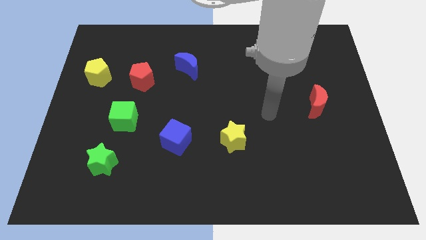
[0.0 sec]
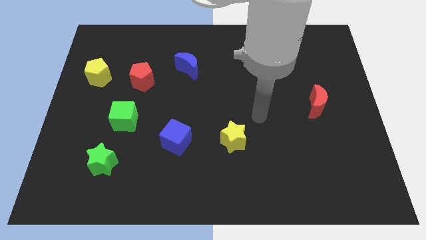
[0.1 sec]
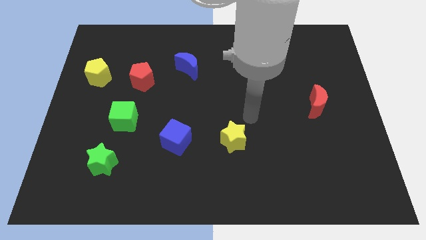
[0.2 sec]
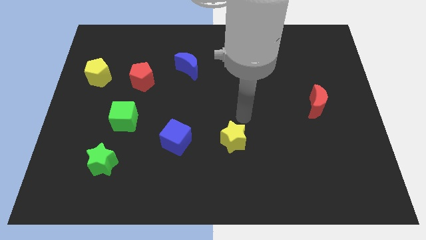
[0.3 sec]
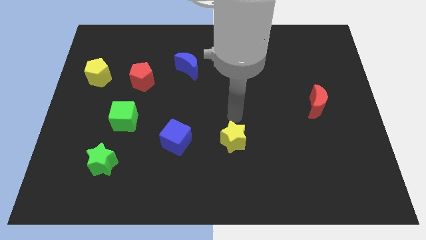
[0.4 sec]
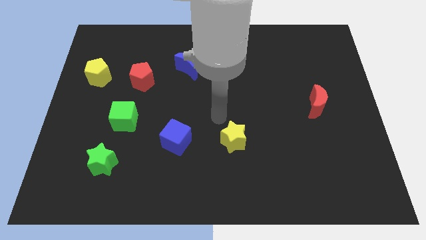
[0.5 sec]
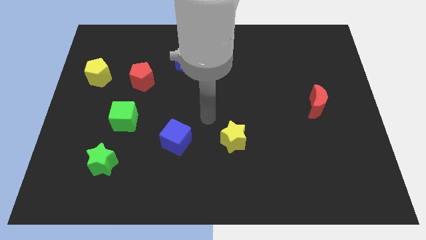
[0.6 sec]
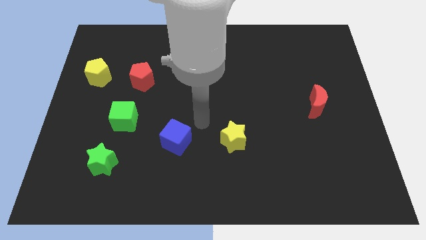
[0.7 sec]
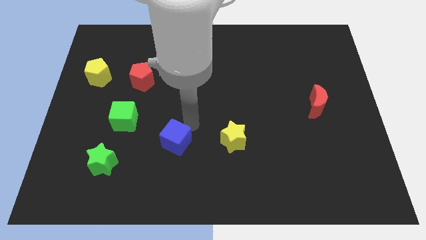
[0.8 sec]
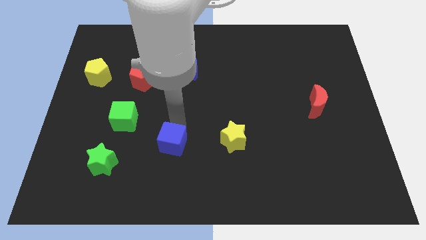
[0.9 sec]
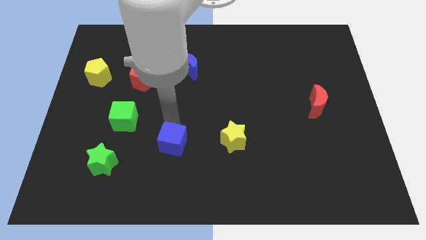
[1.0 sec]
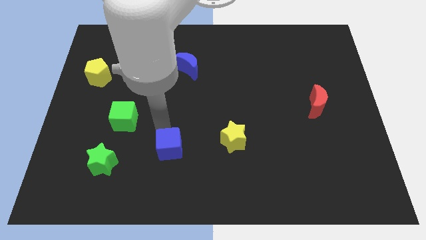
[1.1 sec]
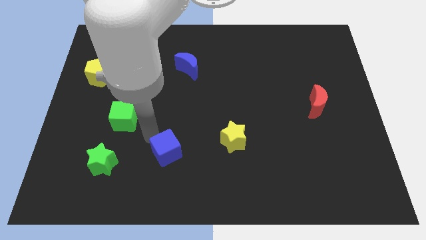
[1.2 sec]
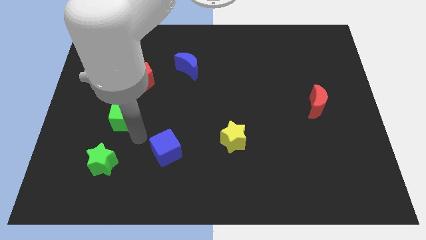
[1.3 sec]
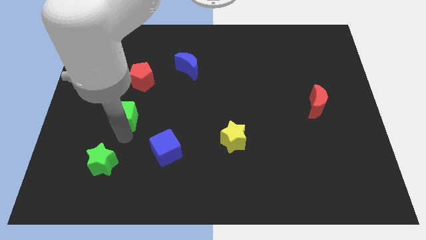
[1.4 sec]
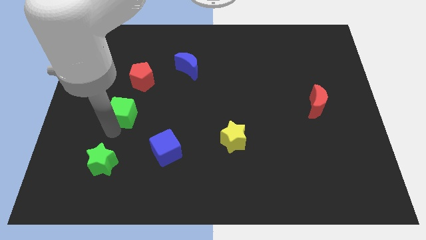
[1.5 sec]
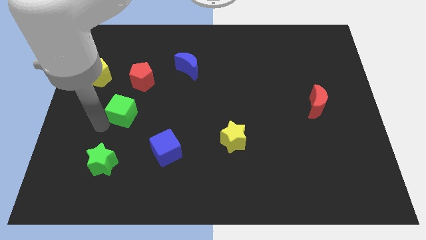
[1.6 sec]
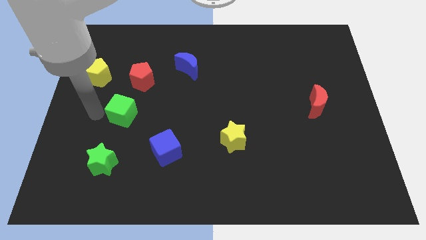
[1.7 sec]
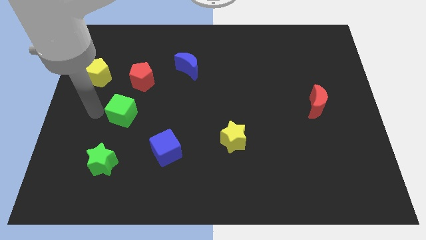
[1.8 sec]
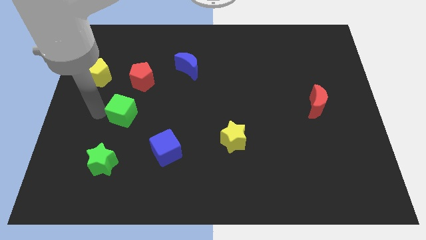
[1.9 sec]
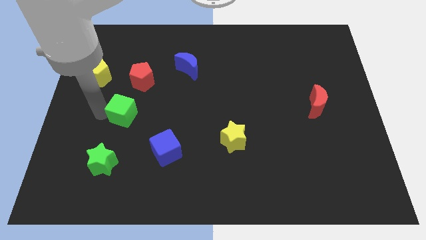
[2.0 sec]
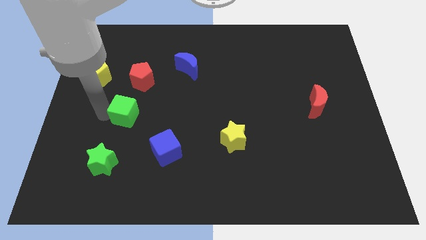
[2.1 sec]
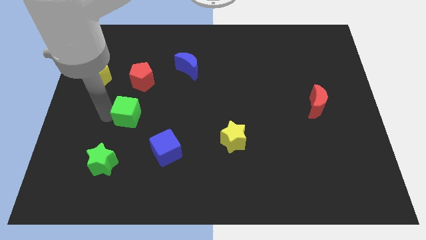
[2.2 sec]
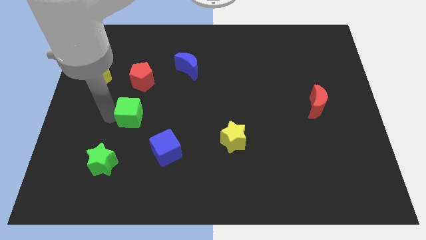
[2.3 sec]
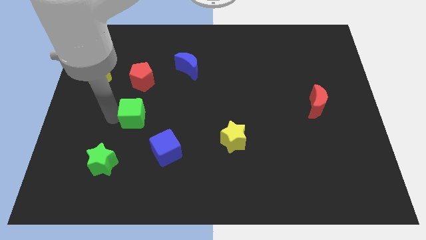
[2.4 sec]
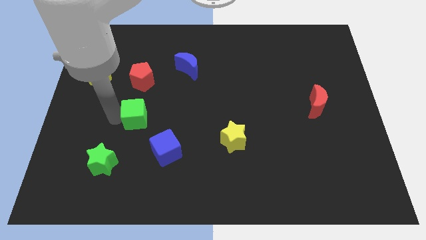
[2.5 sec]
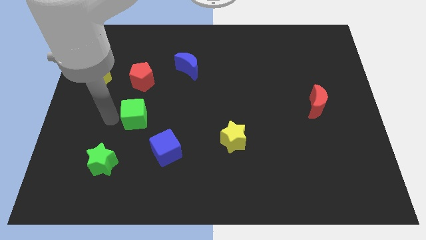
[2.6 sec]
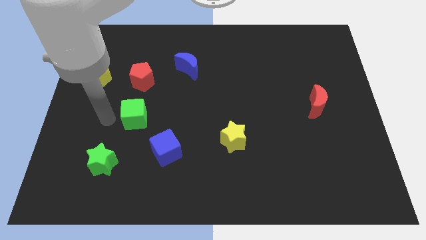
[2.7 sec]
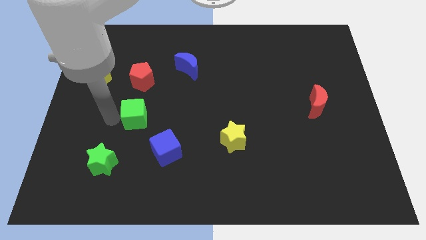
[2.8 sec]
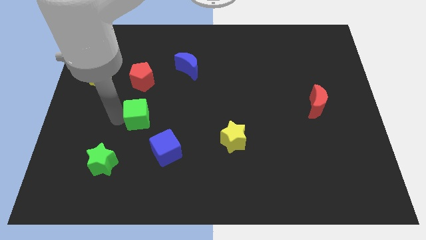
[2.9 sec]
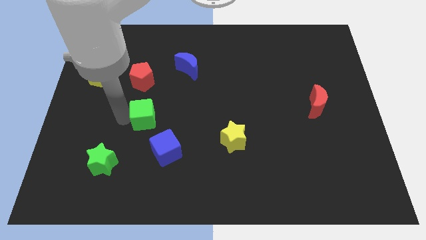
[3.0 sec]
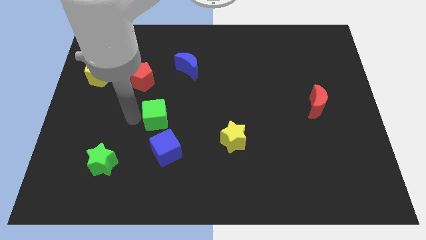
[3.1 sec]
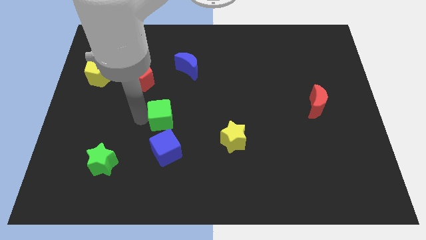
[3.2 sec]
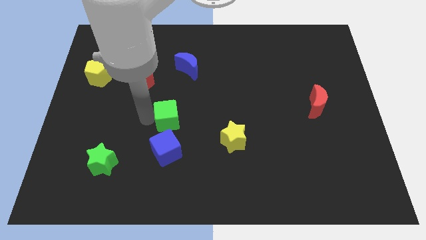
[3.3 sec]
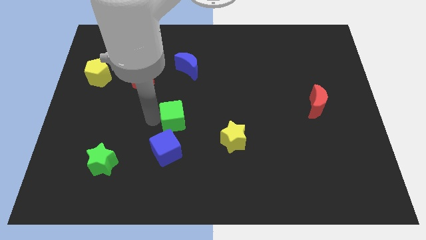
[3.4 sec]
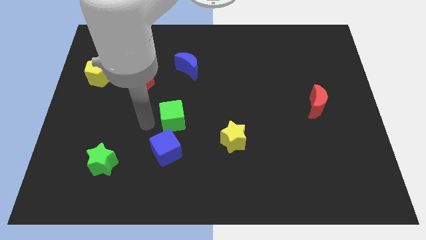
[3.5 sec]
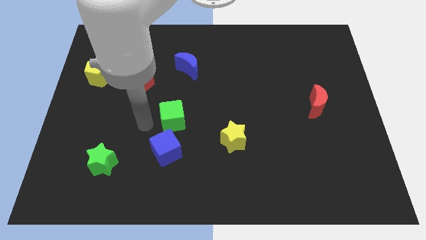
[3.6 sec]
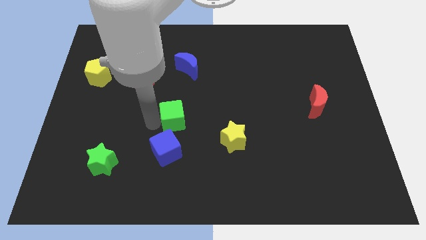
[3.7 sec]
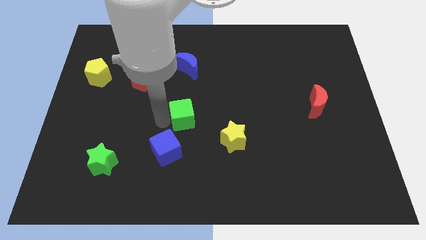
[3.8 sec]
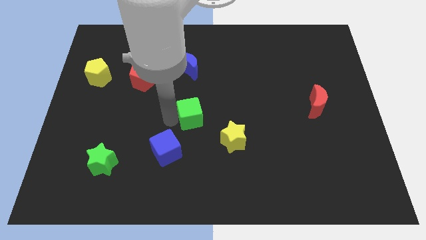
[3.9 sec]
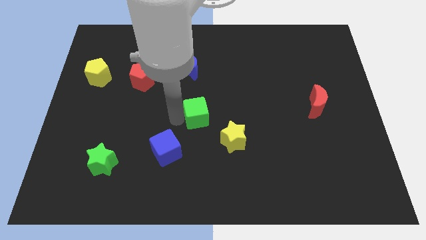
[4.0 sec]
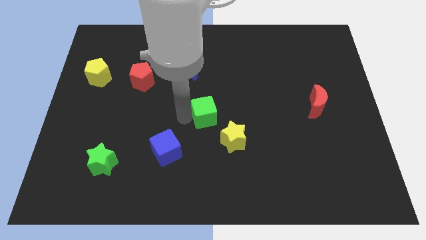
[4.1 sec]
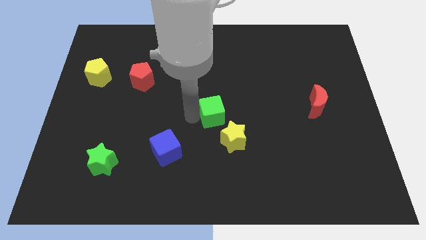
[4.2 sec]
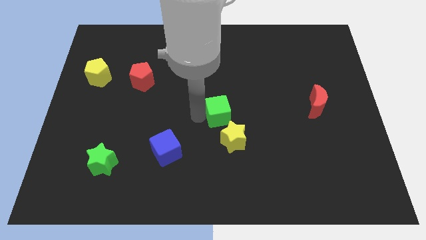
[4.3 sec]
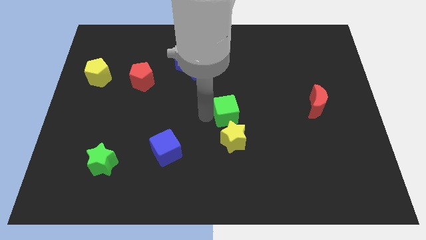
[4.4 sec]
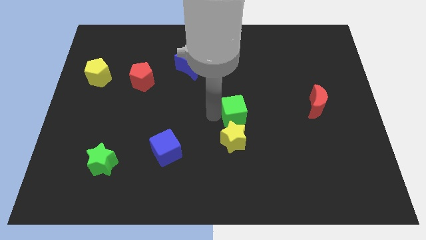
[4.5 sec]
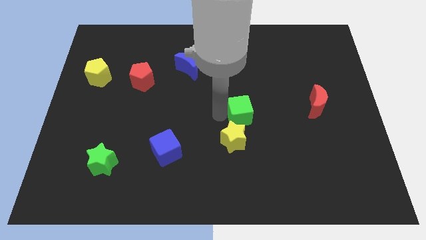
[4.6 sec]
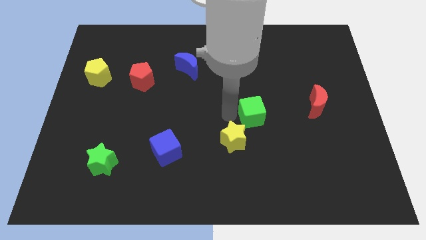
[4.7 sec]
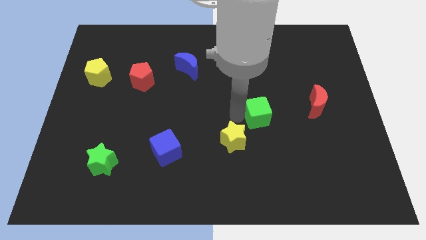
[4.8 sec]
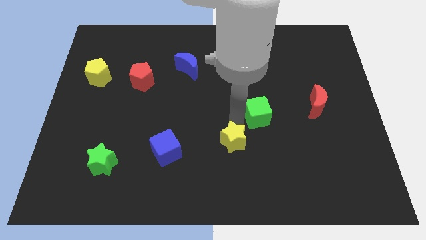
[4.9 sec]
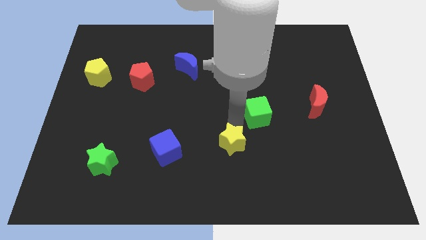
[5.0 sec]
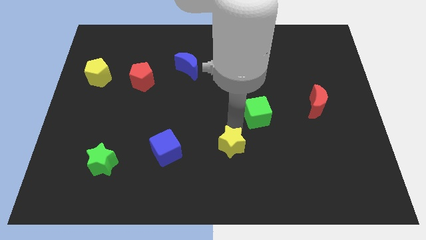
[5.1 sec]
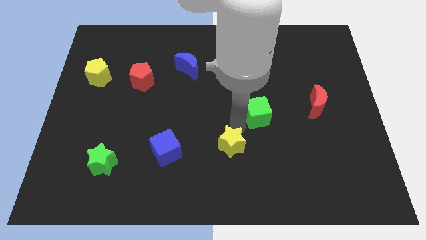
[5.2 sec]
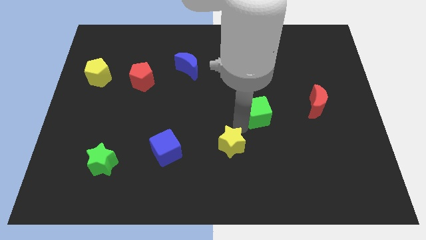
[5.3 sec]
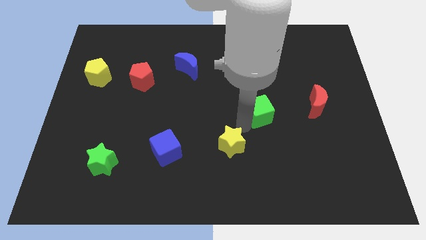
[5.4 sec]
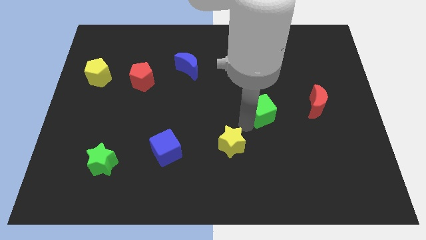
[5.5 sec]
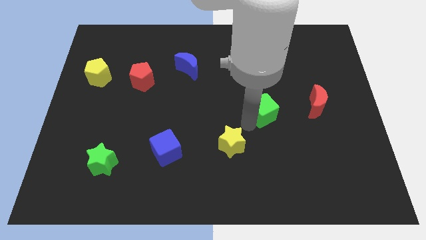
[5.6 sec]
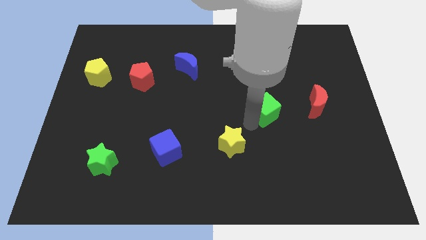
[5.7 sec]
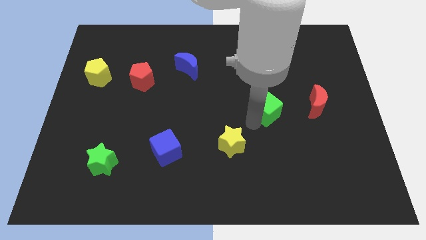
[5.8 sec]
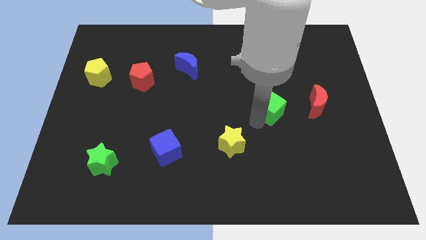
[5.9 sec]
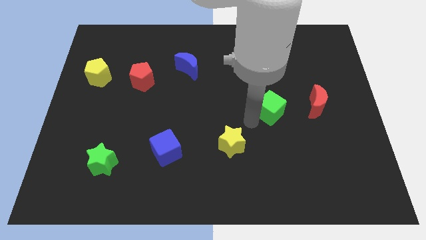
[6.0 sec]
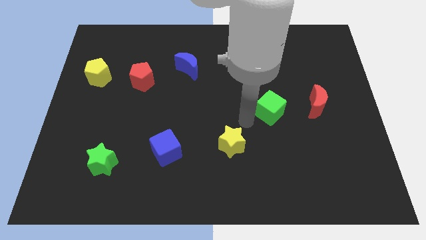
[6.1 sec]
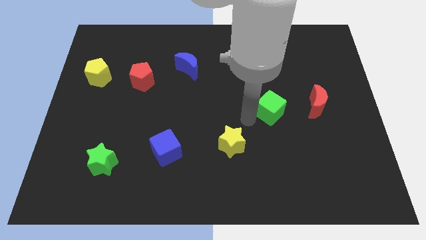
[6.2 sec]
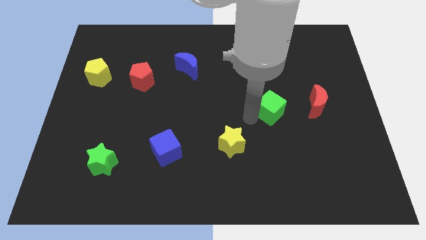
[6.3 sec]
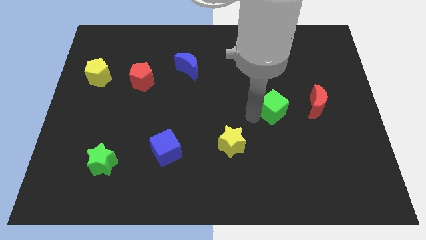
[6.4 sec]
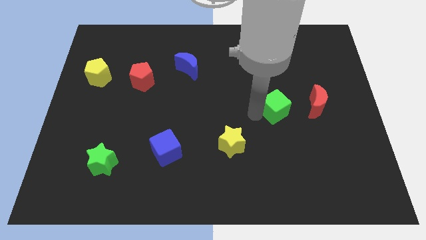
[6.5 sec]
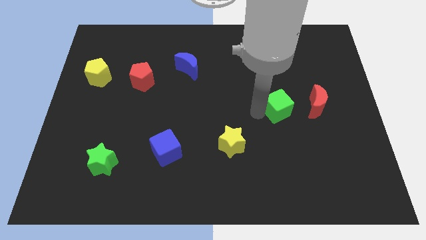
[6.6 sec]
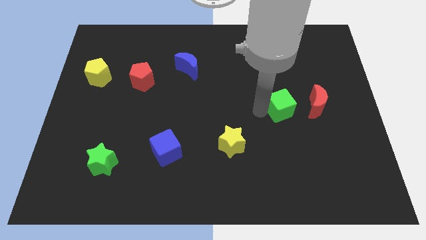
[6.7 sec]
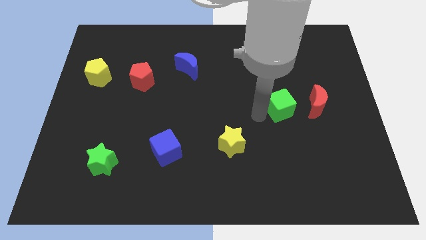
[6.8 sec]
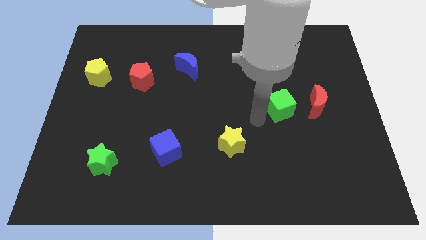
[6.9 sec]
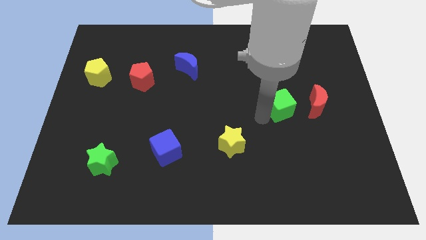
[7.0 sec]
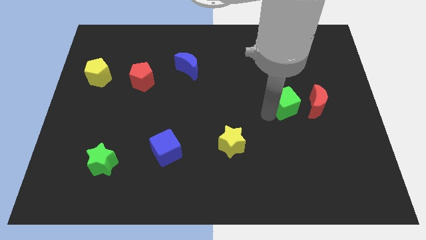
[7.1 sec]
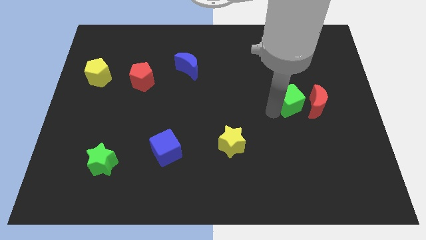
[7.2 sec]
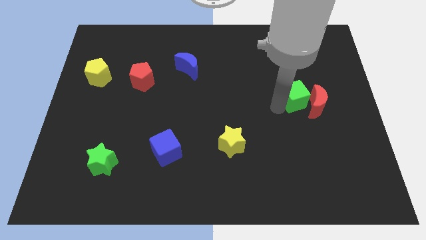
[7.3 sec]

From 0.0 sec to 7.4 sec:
push the green cube next to the red moon
